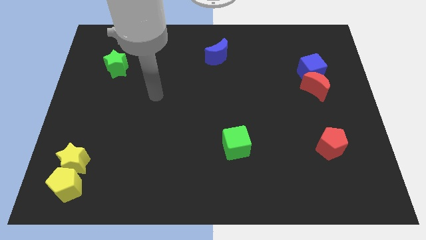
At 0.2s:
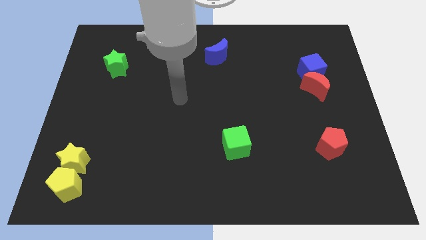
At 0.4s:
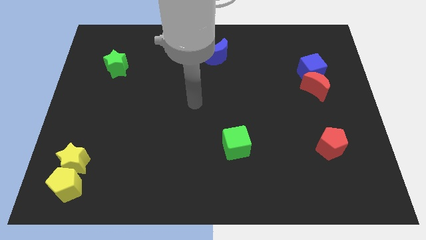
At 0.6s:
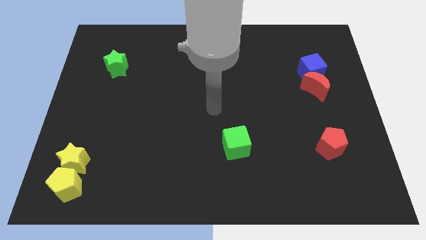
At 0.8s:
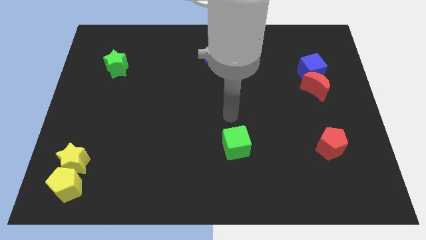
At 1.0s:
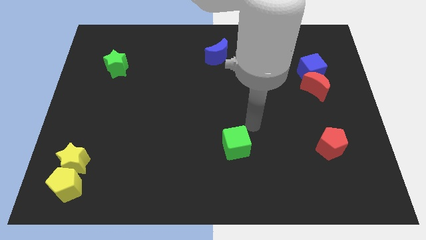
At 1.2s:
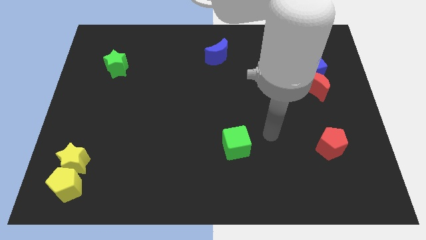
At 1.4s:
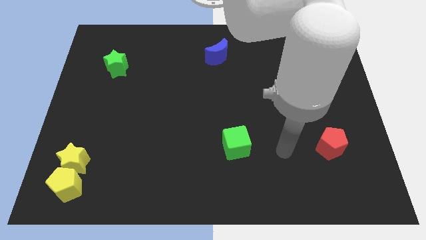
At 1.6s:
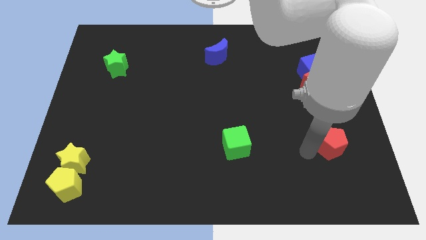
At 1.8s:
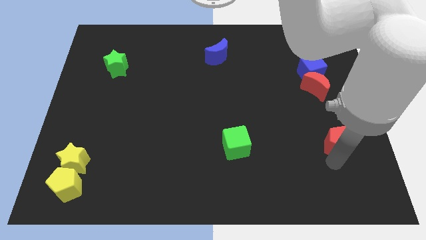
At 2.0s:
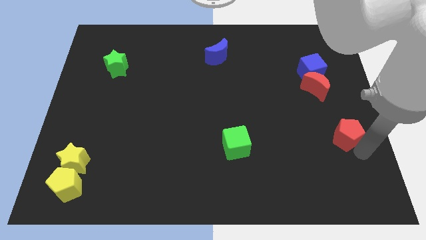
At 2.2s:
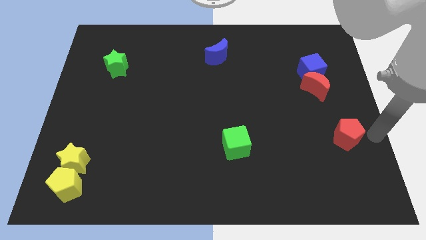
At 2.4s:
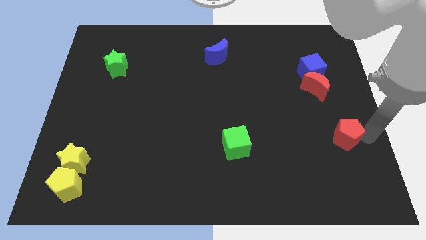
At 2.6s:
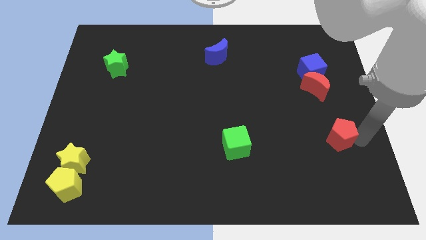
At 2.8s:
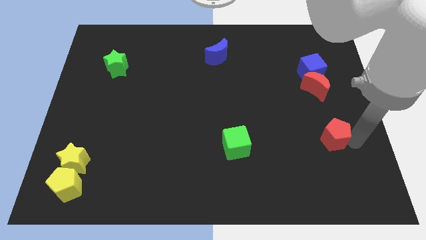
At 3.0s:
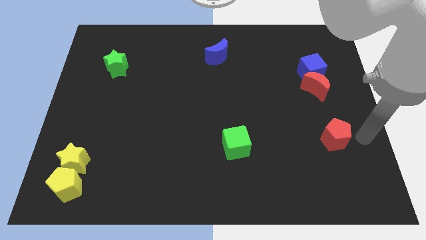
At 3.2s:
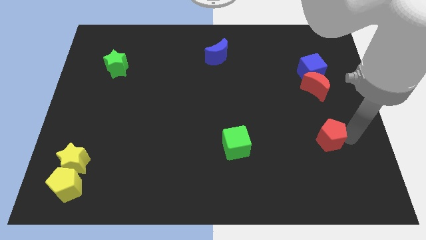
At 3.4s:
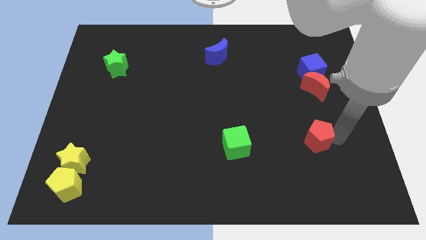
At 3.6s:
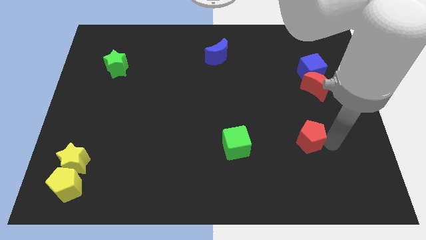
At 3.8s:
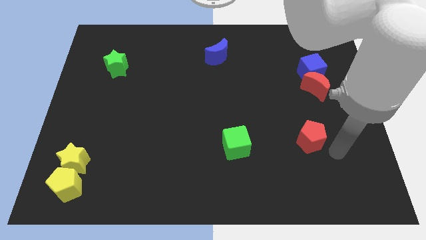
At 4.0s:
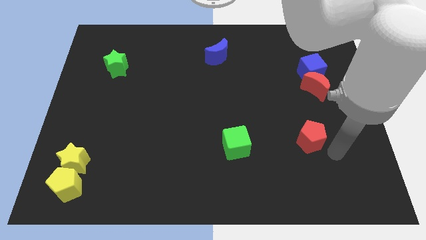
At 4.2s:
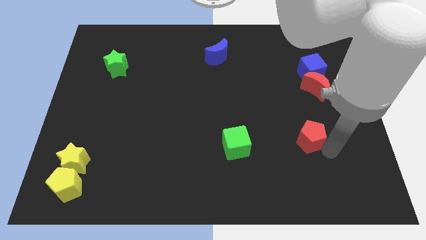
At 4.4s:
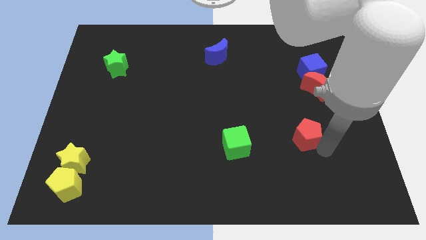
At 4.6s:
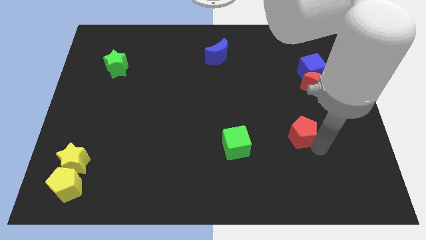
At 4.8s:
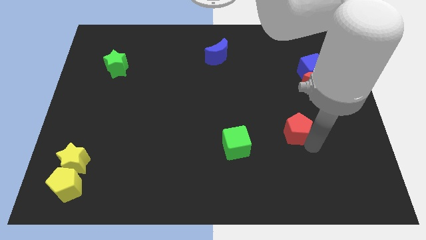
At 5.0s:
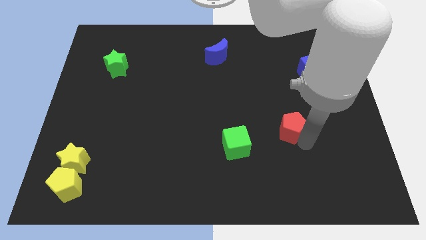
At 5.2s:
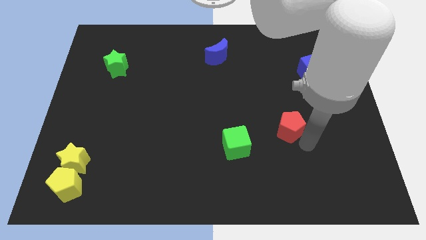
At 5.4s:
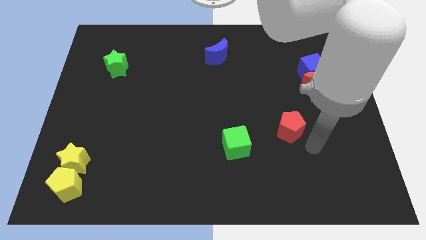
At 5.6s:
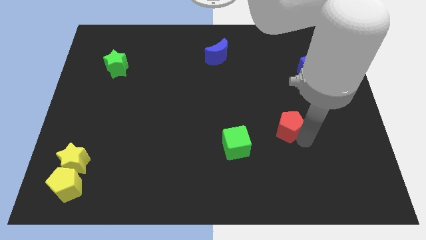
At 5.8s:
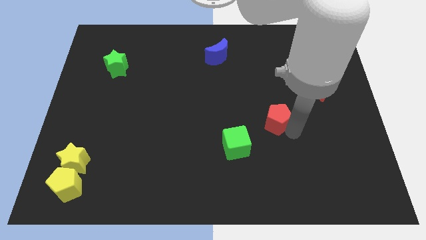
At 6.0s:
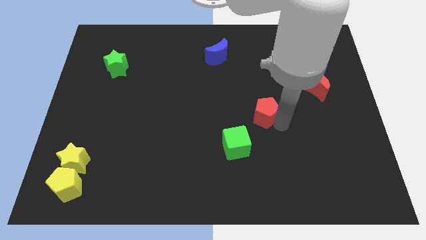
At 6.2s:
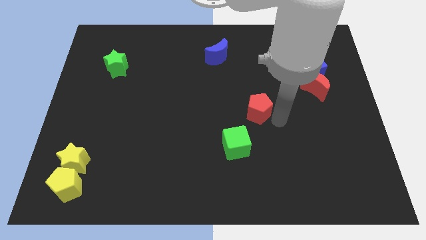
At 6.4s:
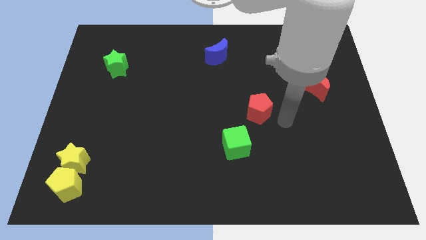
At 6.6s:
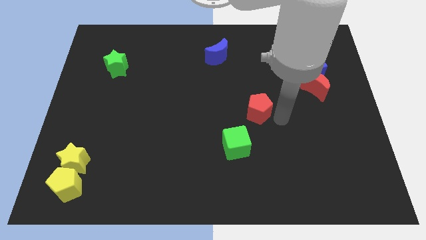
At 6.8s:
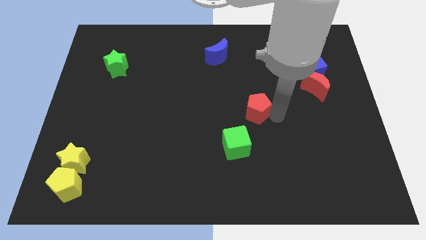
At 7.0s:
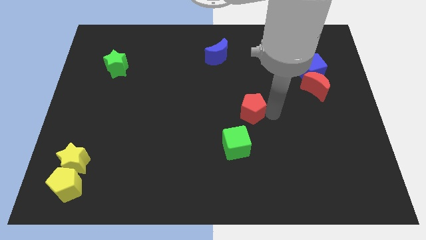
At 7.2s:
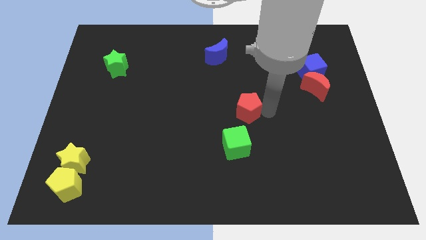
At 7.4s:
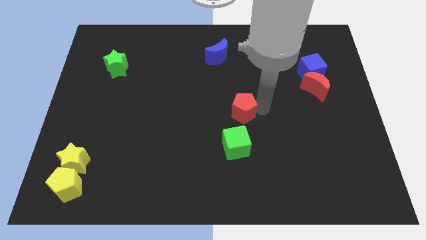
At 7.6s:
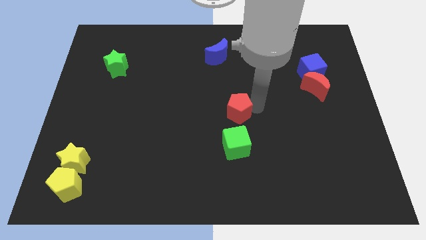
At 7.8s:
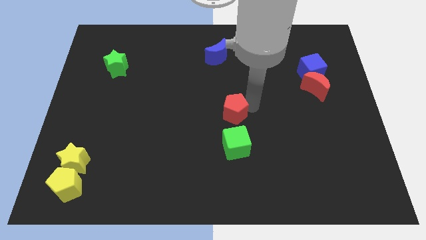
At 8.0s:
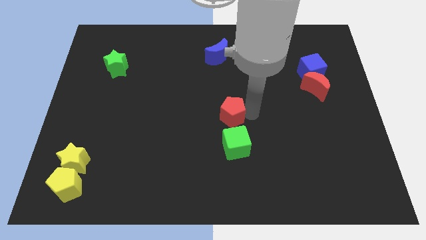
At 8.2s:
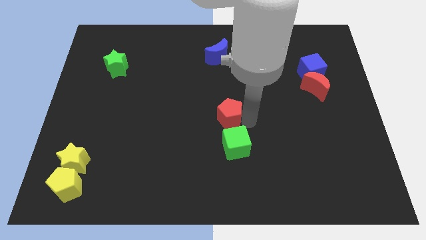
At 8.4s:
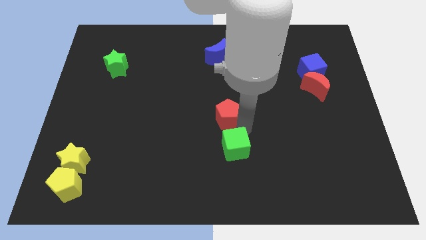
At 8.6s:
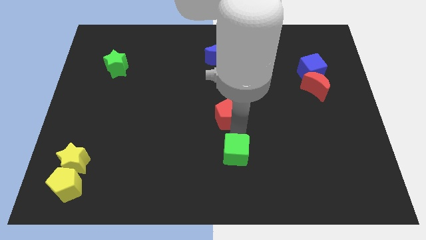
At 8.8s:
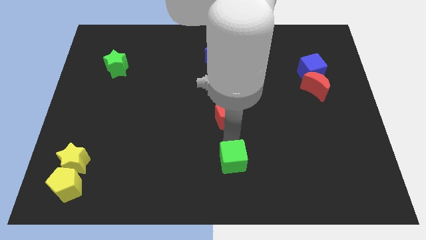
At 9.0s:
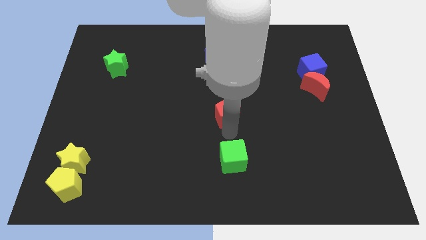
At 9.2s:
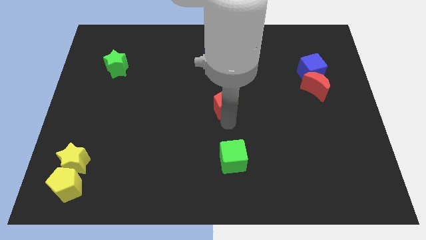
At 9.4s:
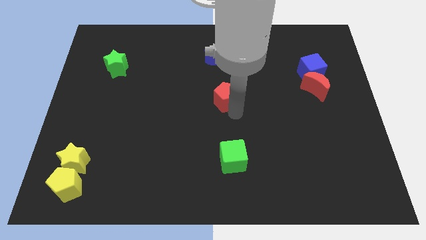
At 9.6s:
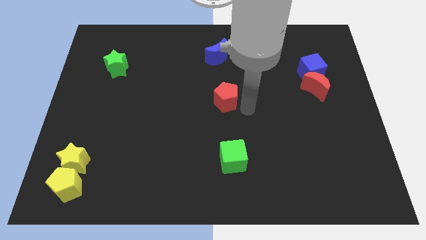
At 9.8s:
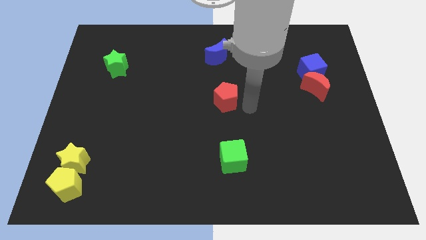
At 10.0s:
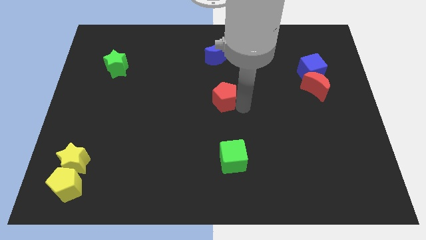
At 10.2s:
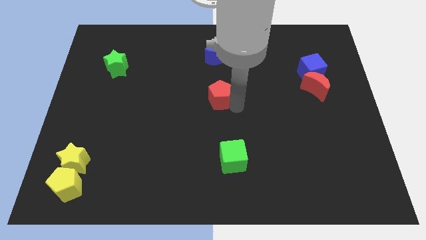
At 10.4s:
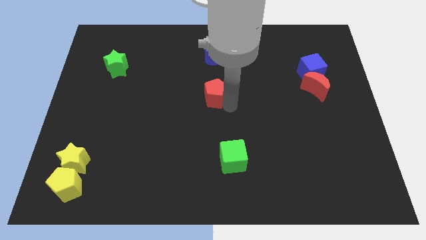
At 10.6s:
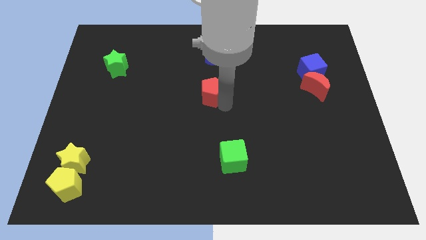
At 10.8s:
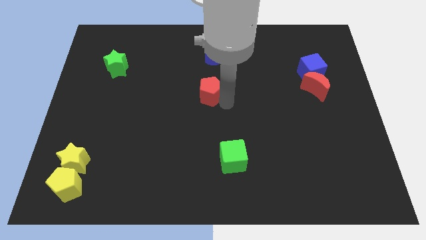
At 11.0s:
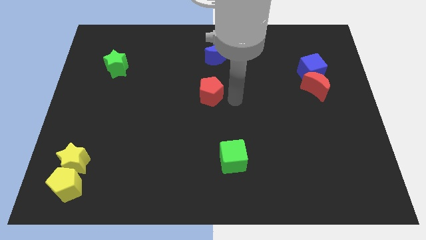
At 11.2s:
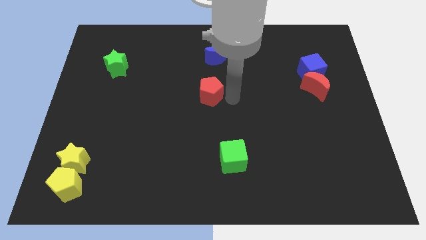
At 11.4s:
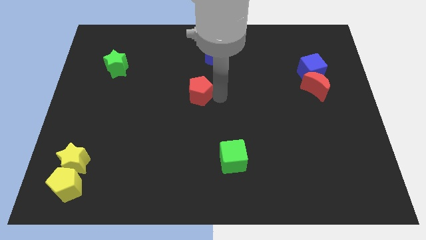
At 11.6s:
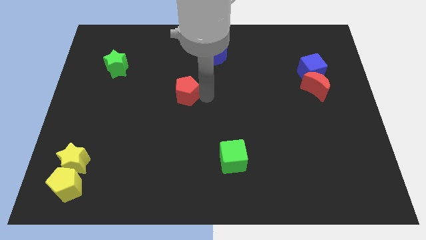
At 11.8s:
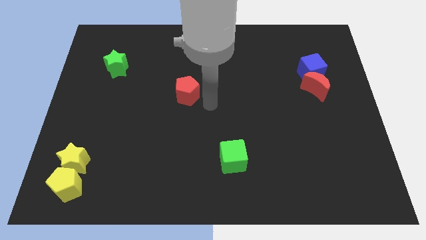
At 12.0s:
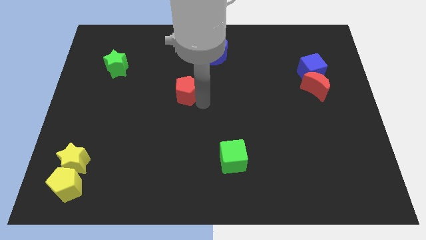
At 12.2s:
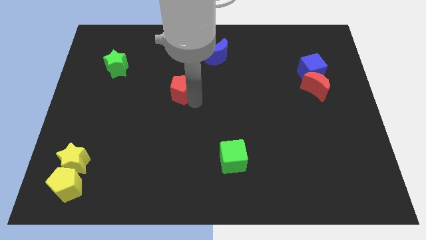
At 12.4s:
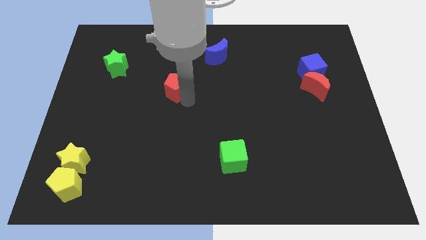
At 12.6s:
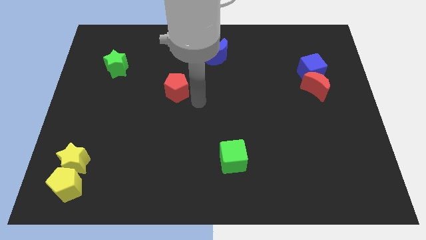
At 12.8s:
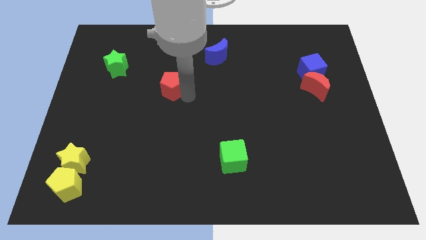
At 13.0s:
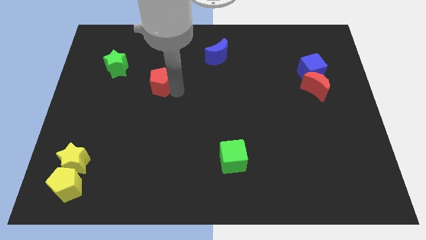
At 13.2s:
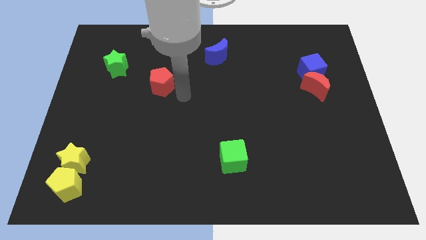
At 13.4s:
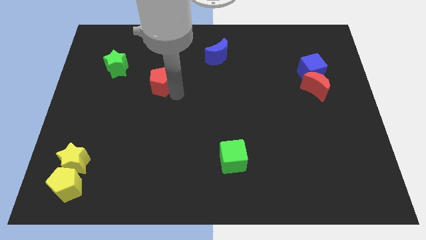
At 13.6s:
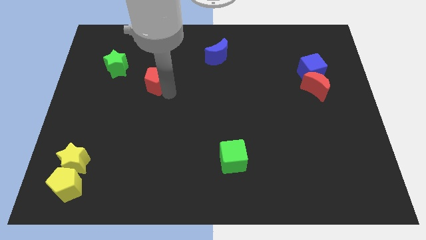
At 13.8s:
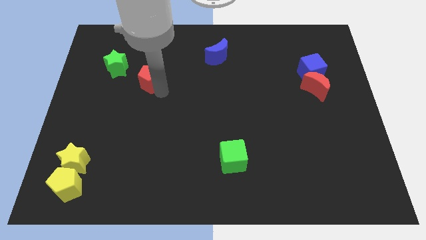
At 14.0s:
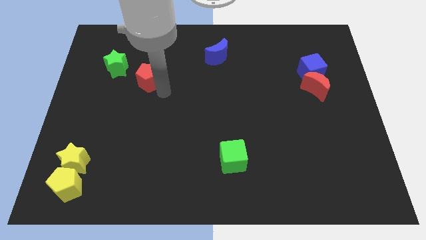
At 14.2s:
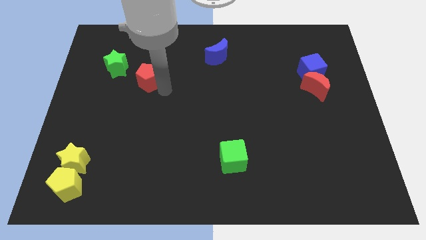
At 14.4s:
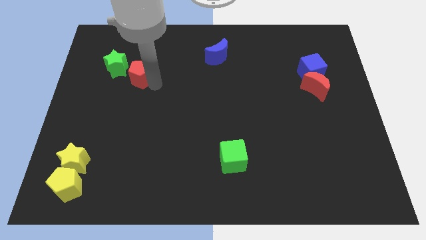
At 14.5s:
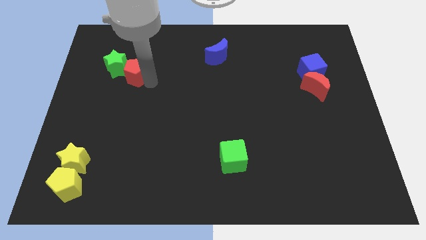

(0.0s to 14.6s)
push the red pentagon close to the green star
